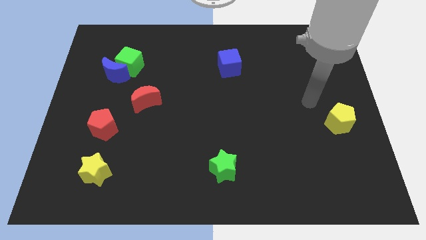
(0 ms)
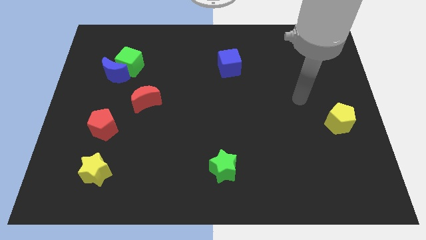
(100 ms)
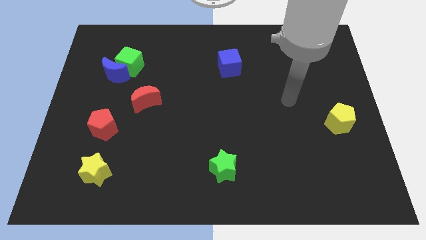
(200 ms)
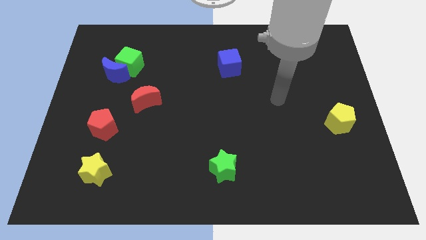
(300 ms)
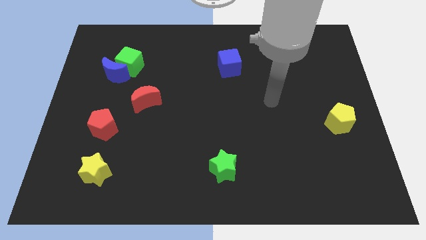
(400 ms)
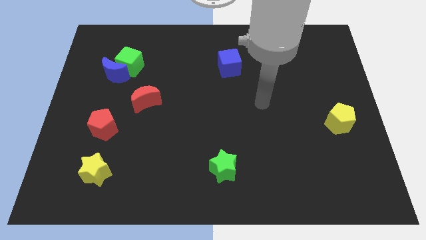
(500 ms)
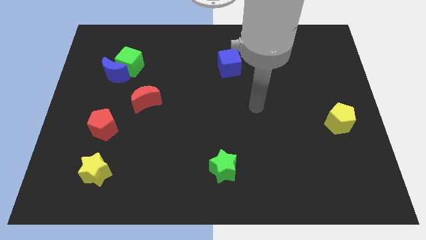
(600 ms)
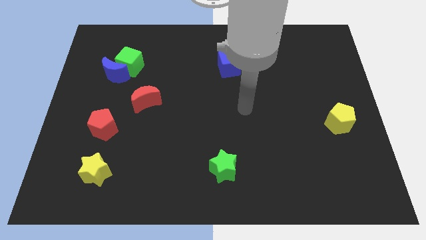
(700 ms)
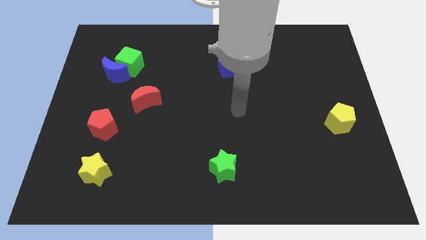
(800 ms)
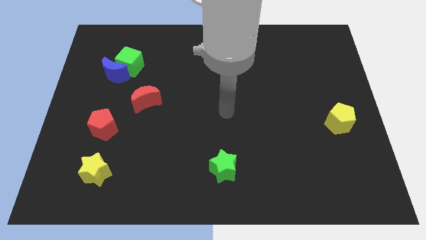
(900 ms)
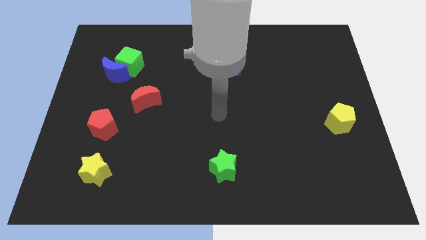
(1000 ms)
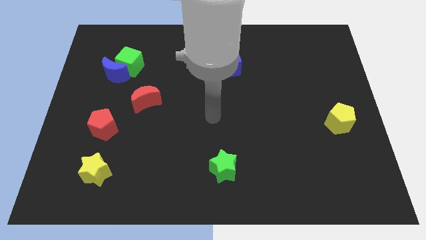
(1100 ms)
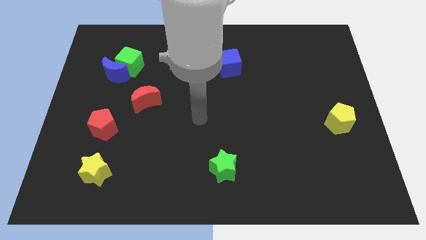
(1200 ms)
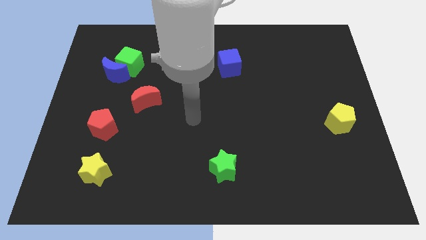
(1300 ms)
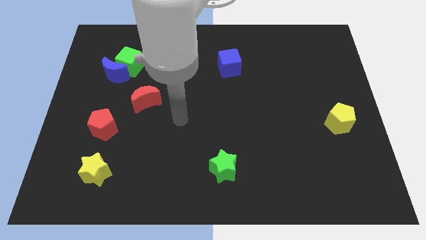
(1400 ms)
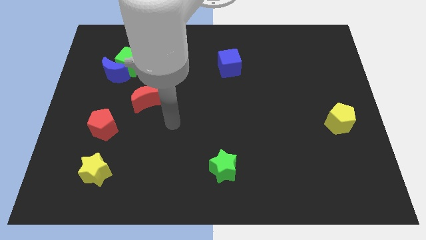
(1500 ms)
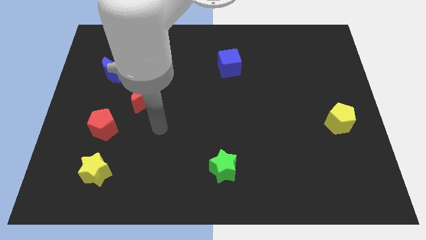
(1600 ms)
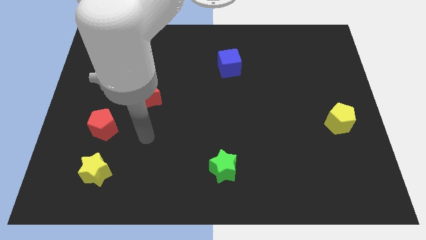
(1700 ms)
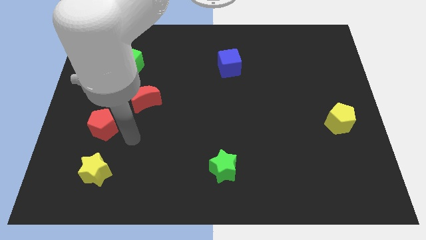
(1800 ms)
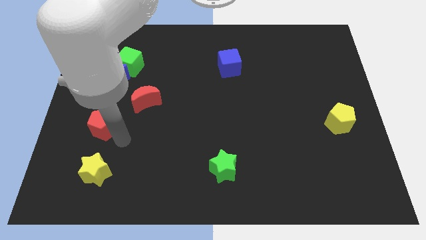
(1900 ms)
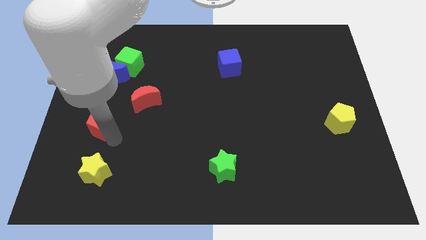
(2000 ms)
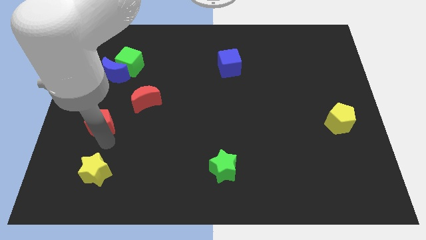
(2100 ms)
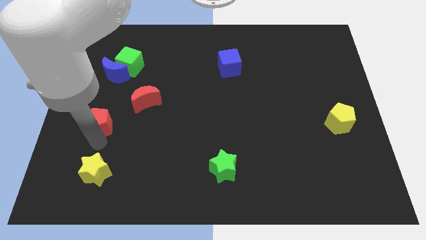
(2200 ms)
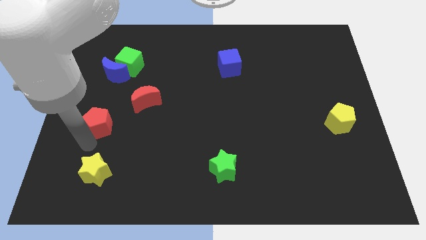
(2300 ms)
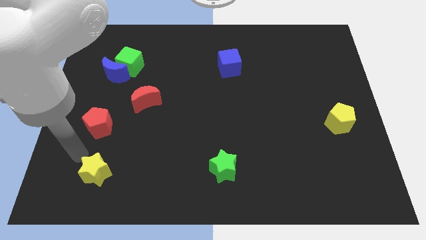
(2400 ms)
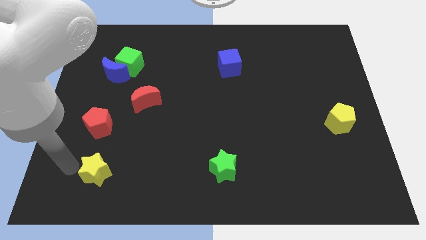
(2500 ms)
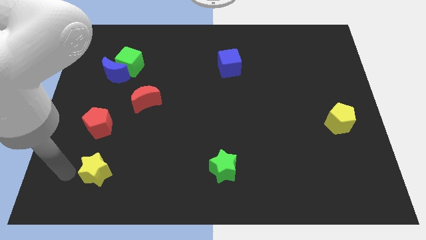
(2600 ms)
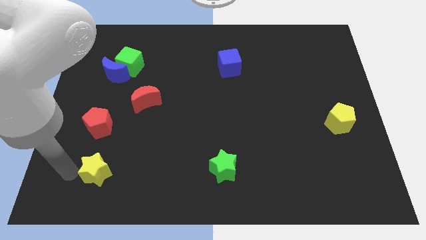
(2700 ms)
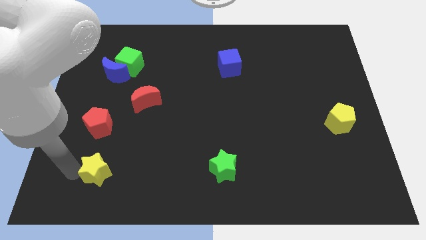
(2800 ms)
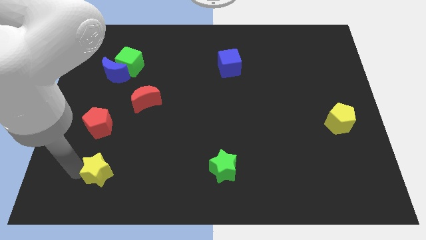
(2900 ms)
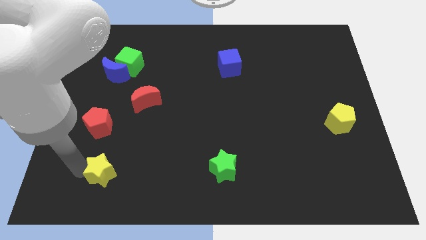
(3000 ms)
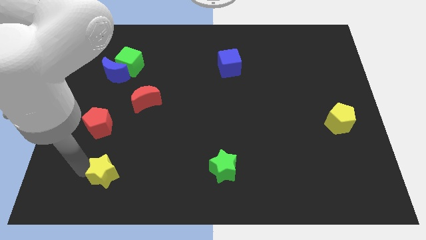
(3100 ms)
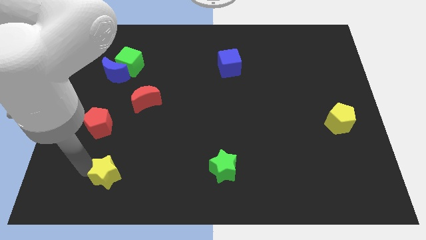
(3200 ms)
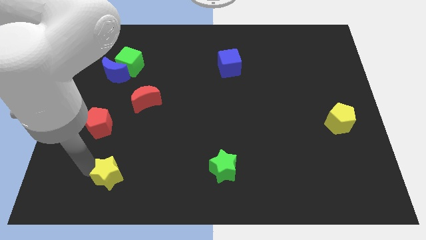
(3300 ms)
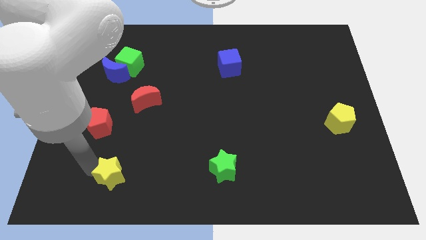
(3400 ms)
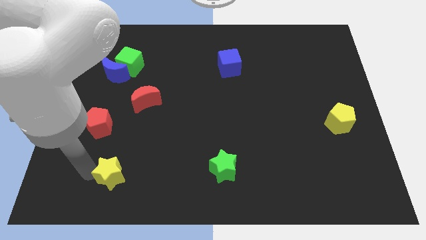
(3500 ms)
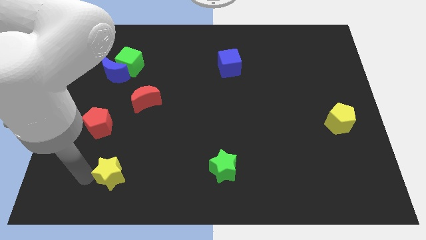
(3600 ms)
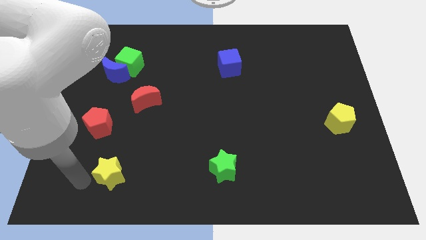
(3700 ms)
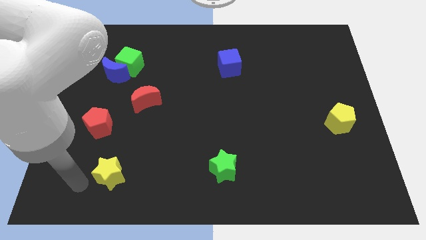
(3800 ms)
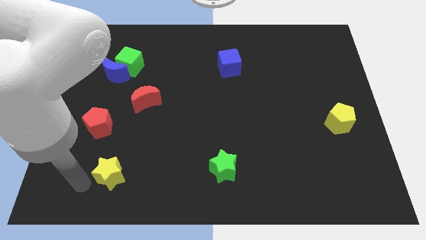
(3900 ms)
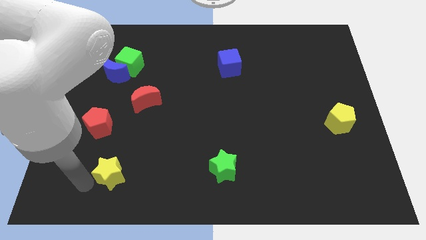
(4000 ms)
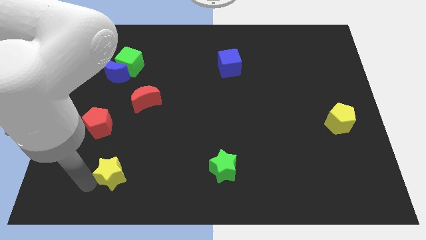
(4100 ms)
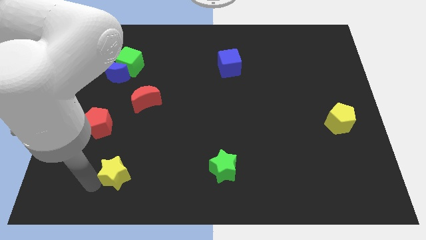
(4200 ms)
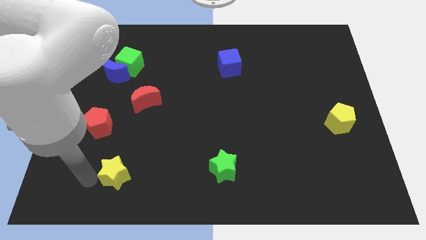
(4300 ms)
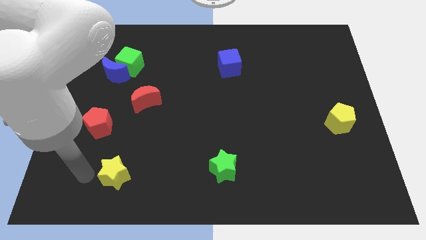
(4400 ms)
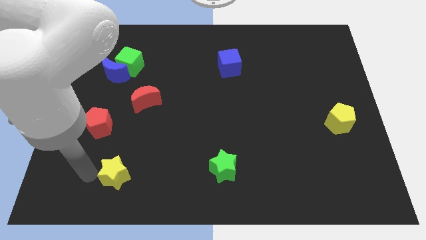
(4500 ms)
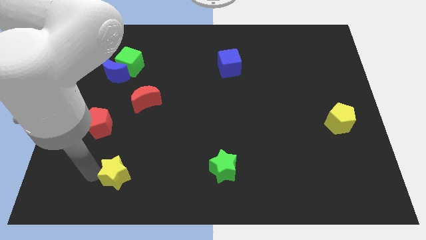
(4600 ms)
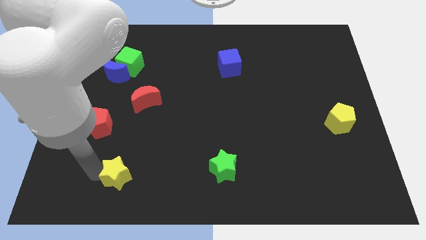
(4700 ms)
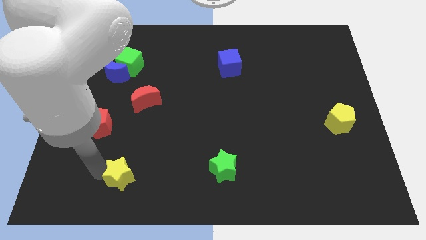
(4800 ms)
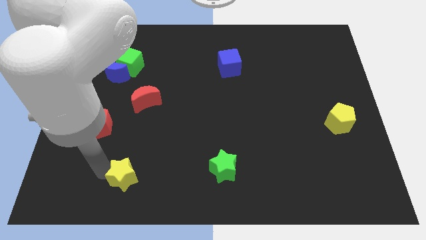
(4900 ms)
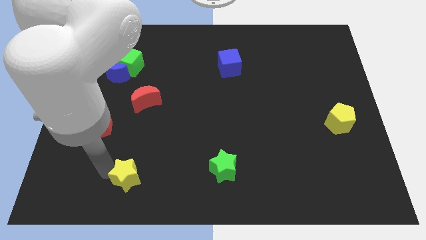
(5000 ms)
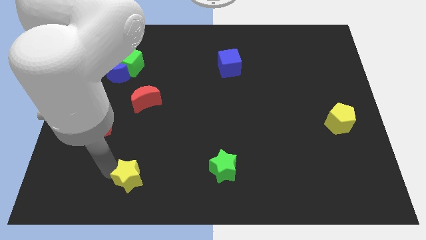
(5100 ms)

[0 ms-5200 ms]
move the yellow star a little right

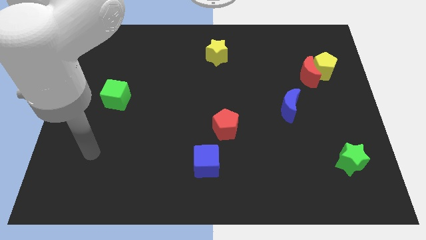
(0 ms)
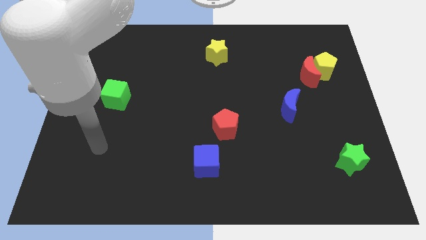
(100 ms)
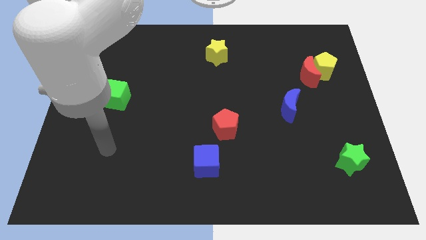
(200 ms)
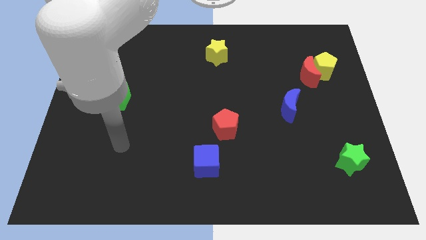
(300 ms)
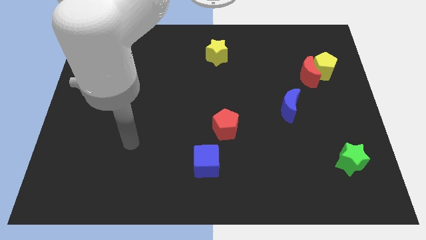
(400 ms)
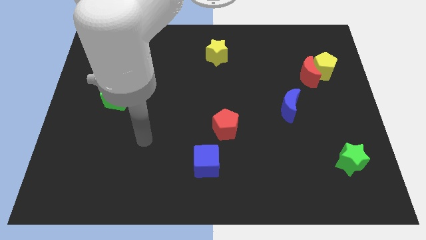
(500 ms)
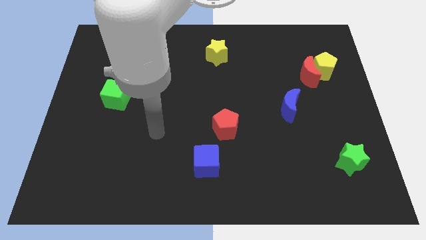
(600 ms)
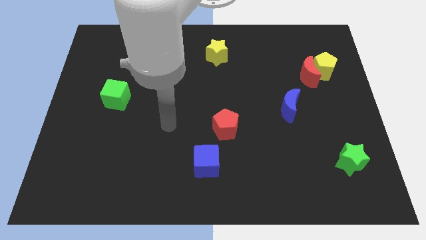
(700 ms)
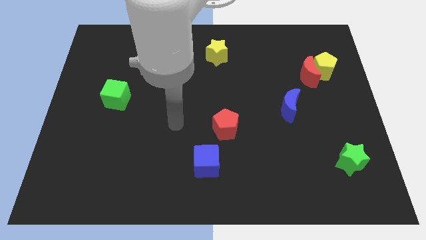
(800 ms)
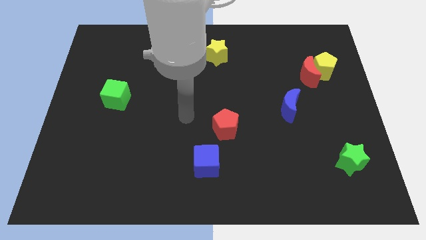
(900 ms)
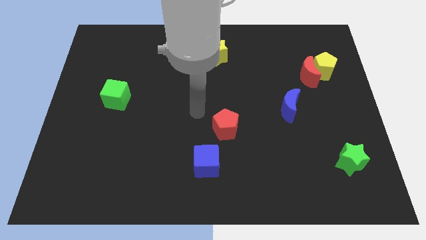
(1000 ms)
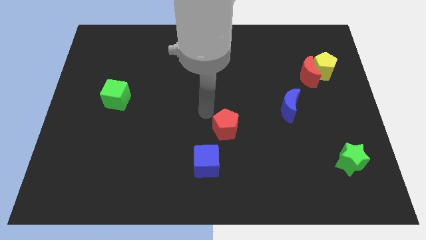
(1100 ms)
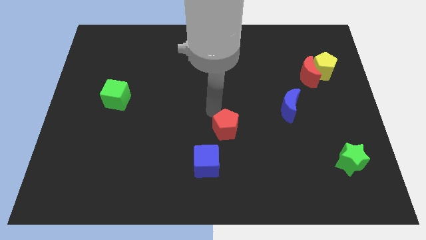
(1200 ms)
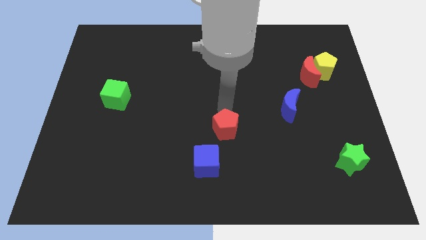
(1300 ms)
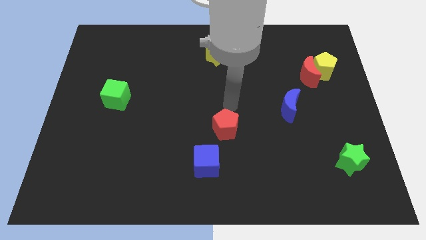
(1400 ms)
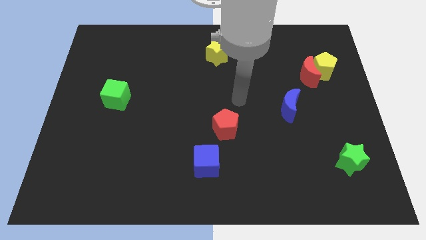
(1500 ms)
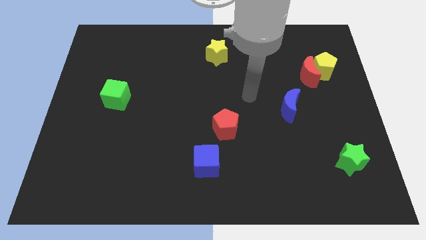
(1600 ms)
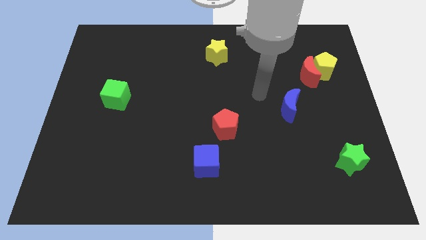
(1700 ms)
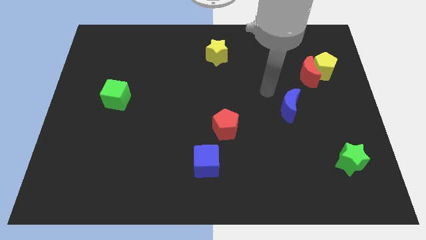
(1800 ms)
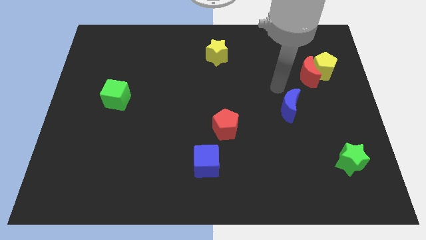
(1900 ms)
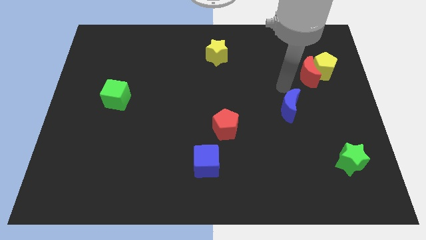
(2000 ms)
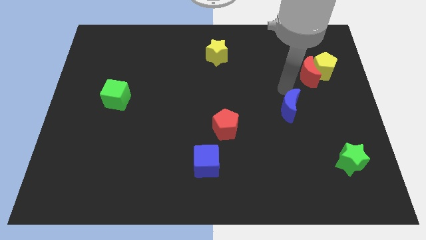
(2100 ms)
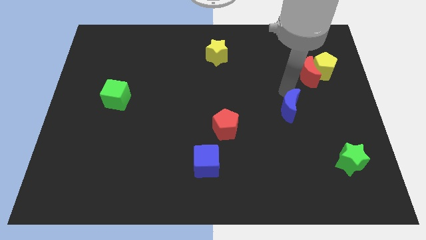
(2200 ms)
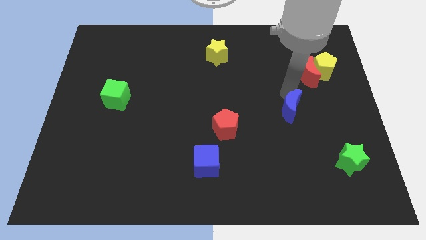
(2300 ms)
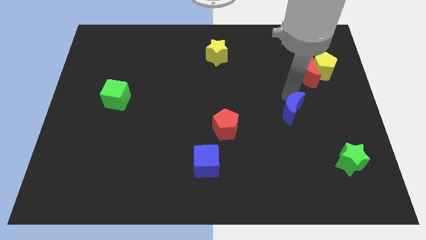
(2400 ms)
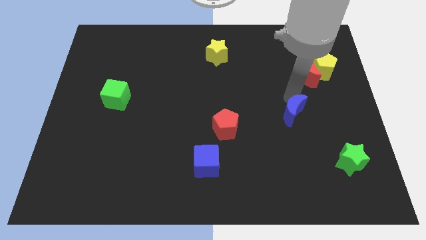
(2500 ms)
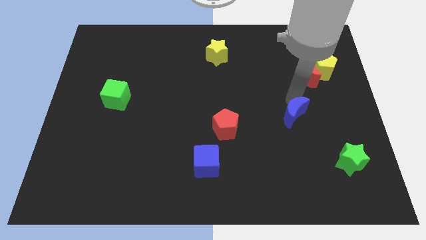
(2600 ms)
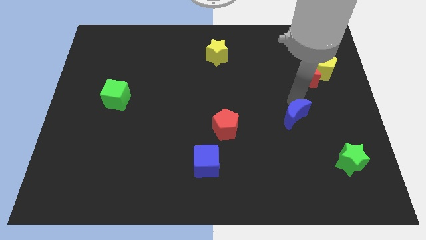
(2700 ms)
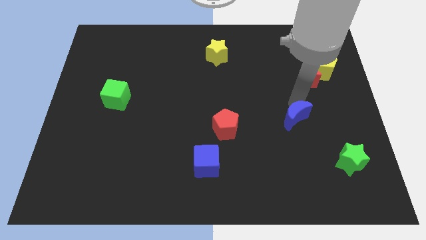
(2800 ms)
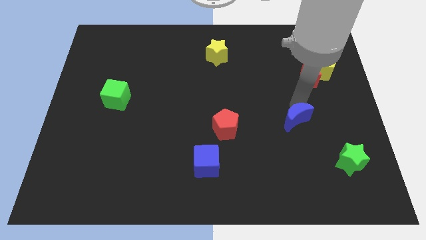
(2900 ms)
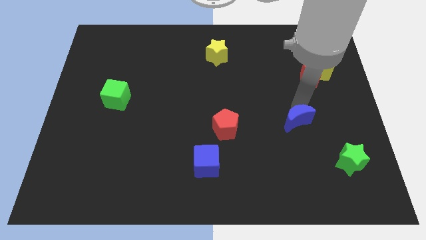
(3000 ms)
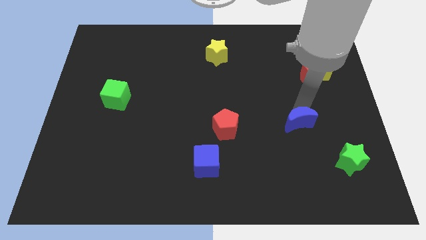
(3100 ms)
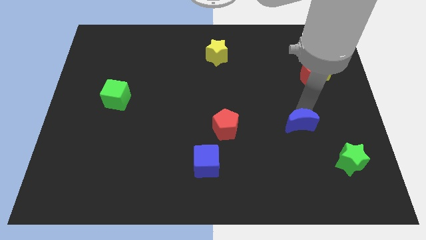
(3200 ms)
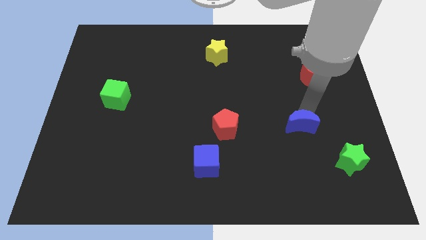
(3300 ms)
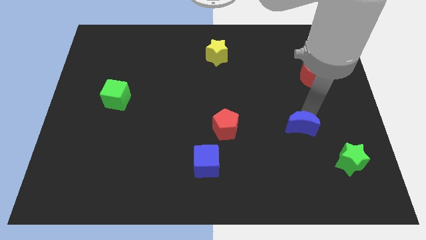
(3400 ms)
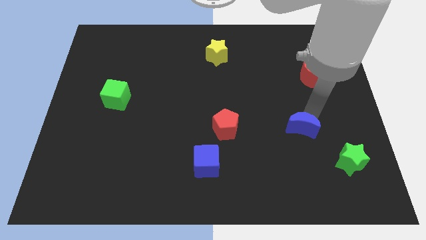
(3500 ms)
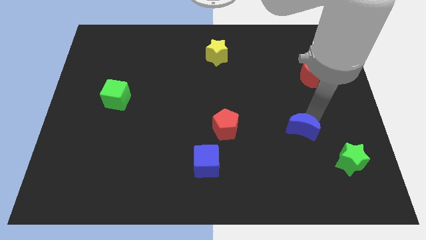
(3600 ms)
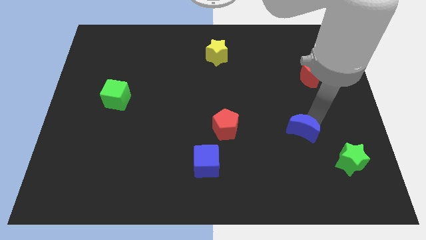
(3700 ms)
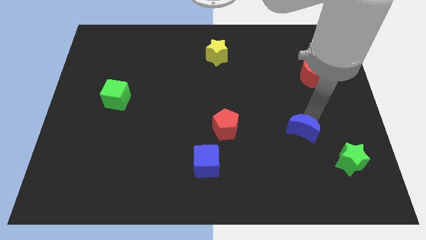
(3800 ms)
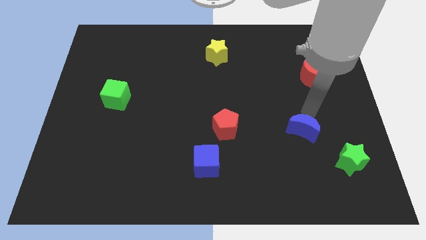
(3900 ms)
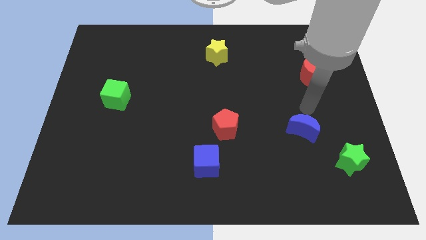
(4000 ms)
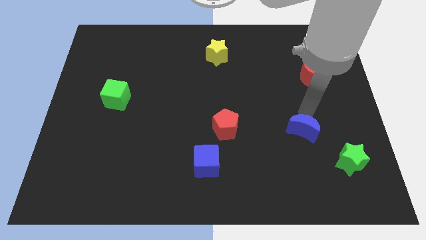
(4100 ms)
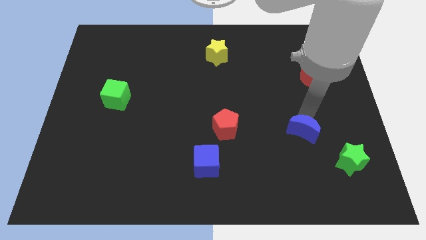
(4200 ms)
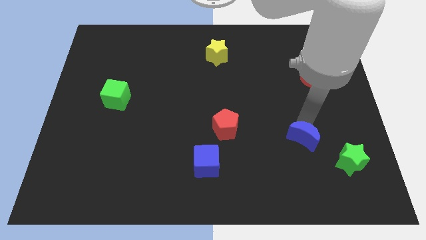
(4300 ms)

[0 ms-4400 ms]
slightly move the blue moon down
